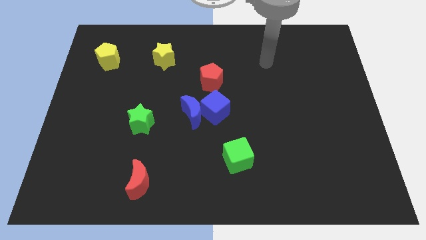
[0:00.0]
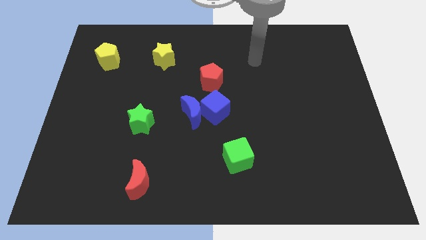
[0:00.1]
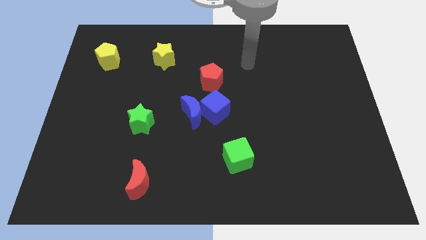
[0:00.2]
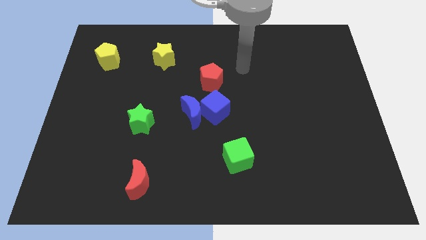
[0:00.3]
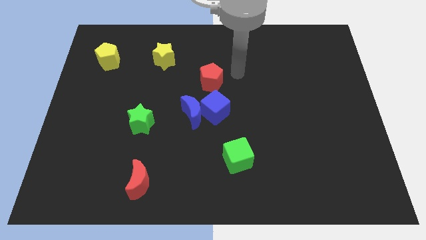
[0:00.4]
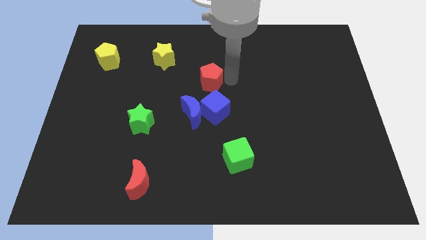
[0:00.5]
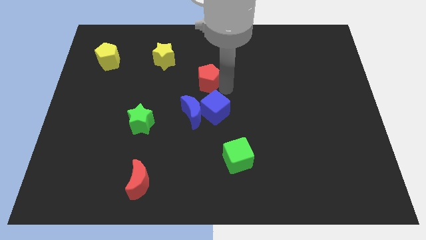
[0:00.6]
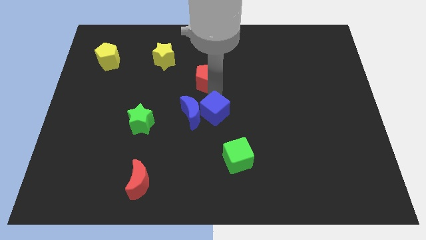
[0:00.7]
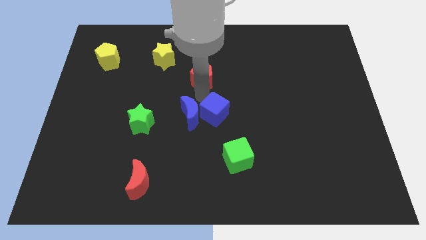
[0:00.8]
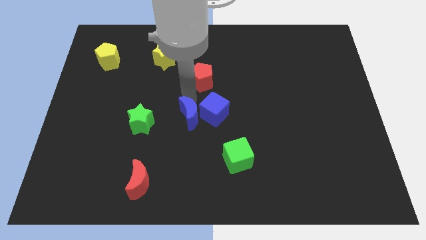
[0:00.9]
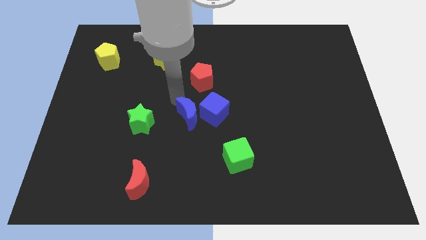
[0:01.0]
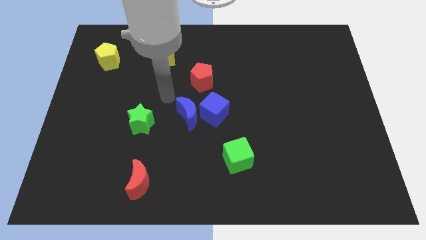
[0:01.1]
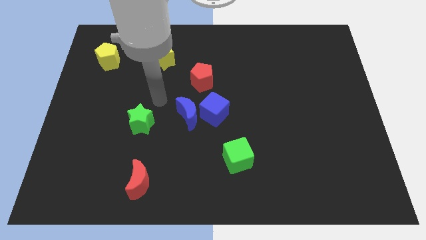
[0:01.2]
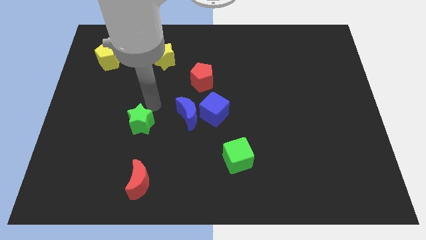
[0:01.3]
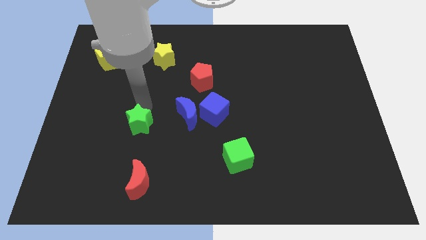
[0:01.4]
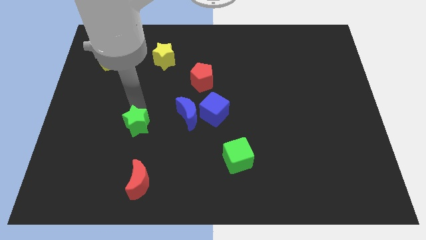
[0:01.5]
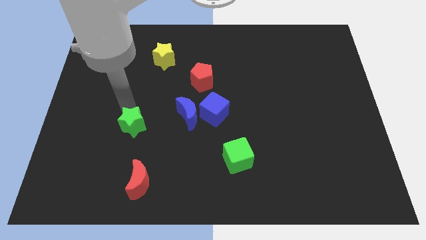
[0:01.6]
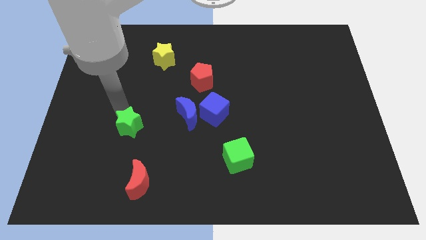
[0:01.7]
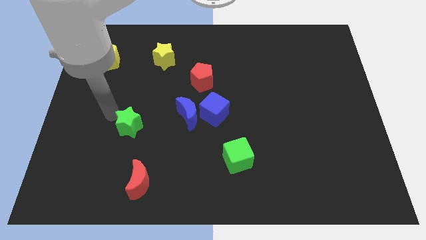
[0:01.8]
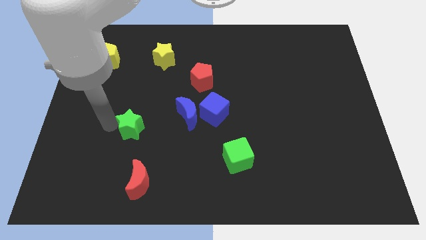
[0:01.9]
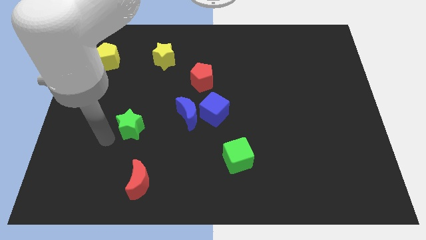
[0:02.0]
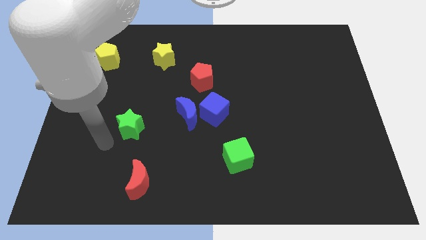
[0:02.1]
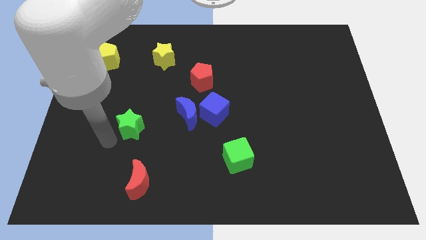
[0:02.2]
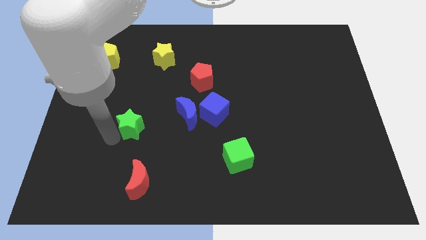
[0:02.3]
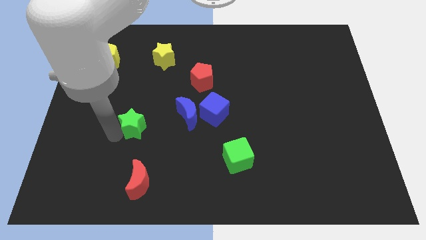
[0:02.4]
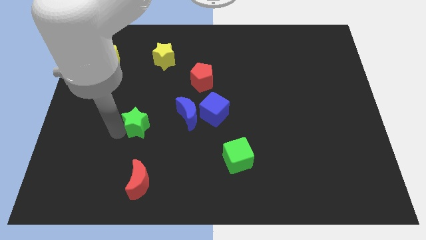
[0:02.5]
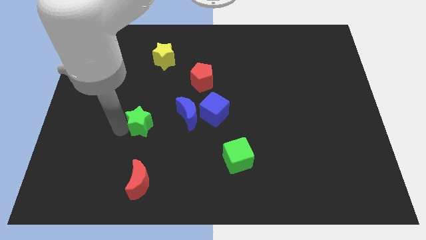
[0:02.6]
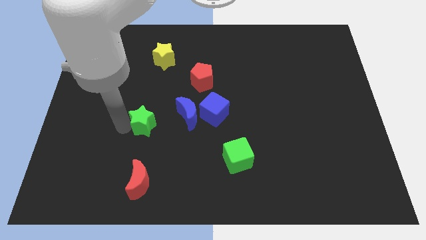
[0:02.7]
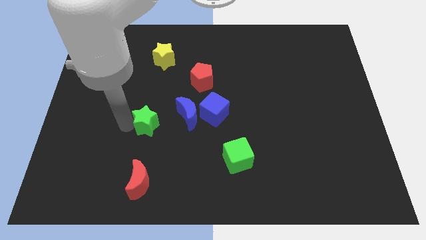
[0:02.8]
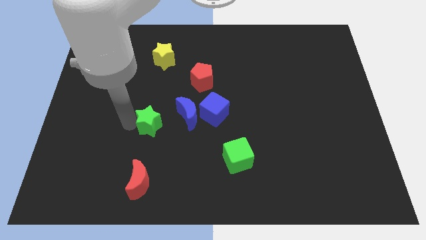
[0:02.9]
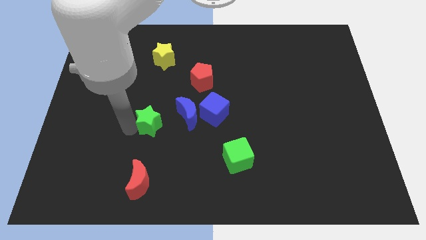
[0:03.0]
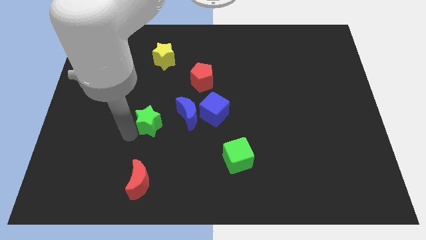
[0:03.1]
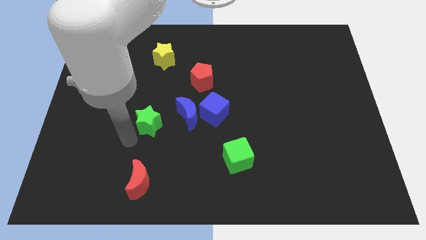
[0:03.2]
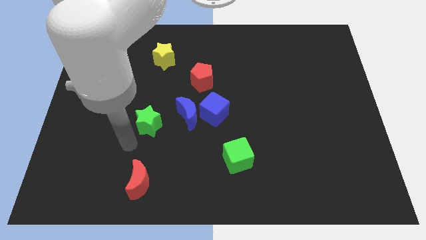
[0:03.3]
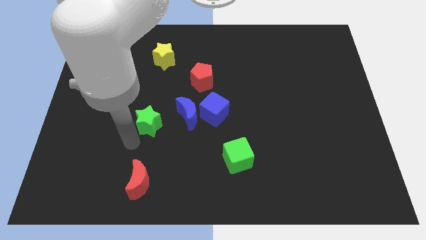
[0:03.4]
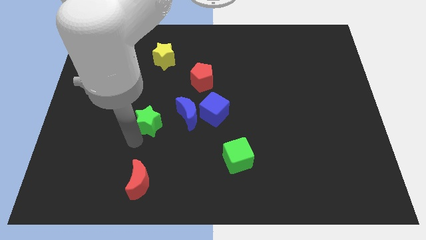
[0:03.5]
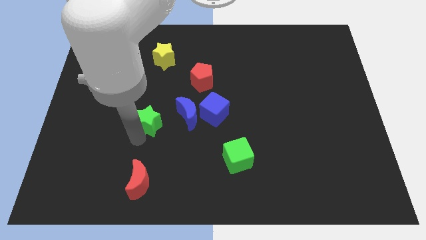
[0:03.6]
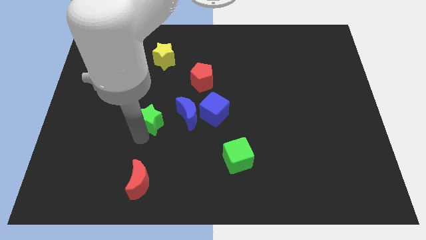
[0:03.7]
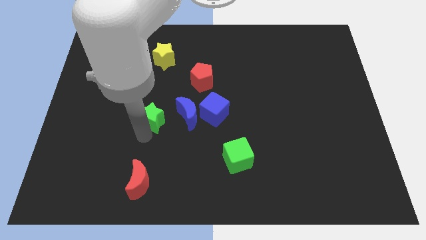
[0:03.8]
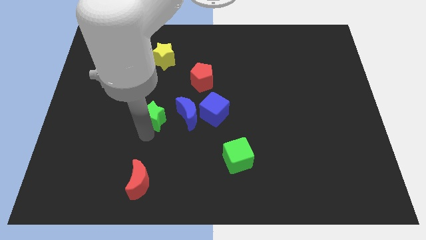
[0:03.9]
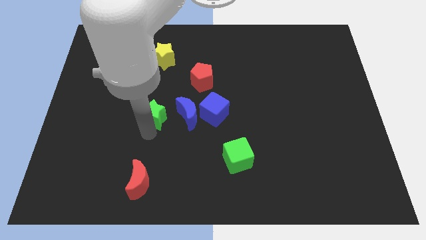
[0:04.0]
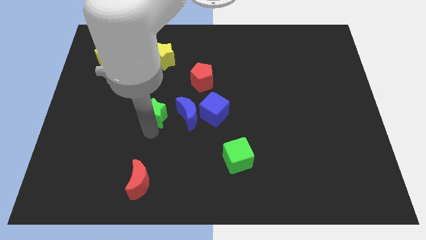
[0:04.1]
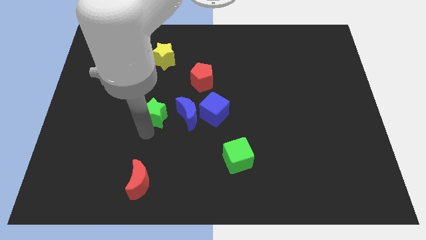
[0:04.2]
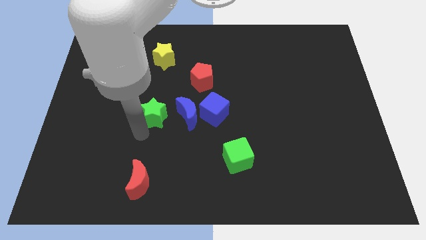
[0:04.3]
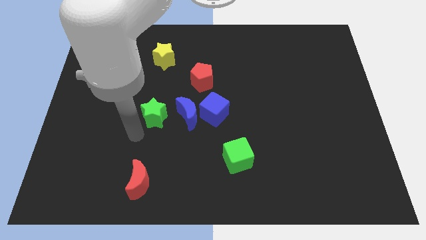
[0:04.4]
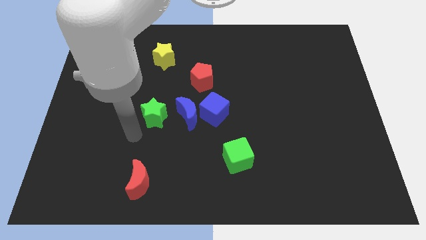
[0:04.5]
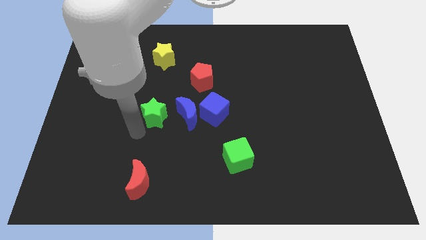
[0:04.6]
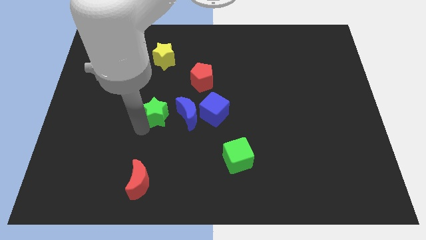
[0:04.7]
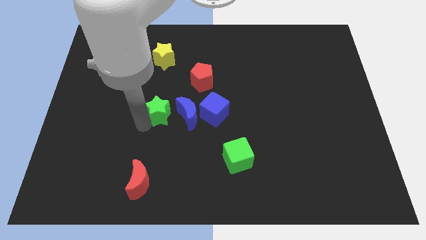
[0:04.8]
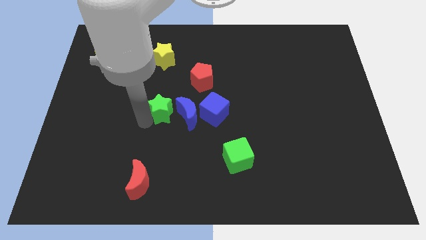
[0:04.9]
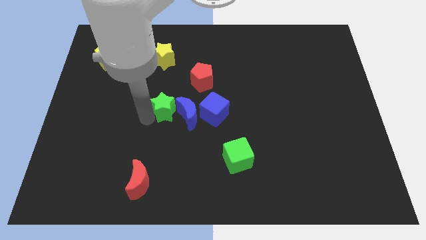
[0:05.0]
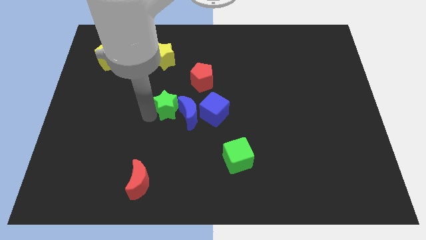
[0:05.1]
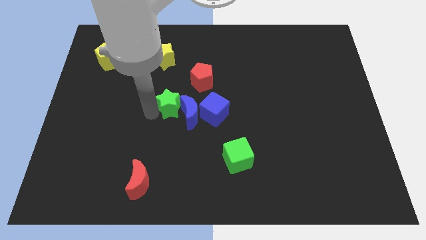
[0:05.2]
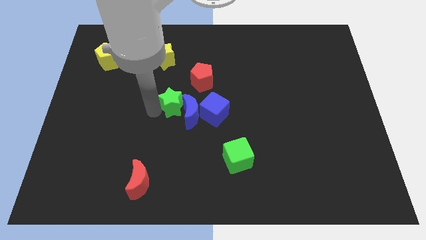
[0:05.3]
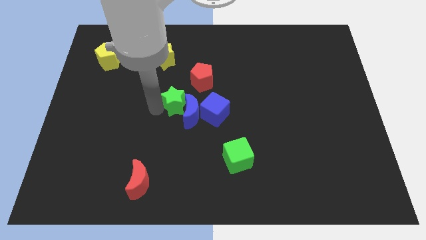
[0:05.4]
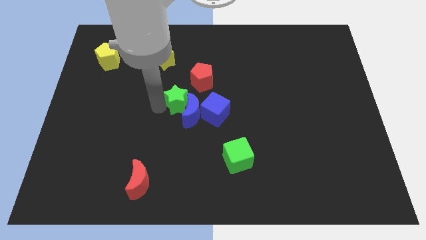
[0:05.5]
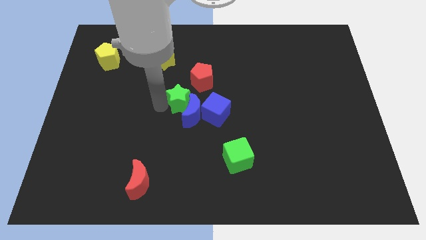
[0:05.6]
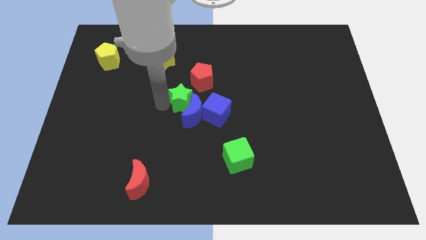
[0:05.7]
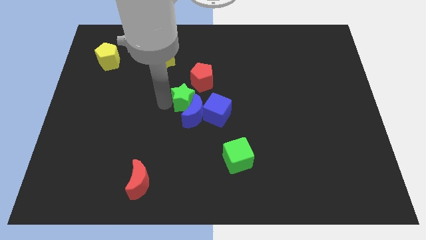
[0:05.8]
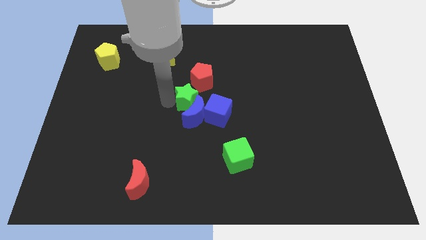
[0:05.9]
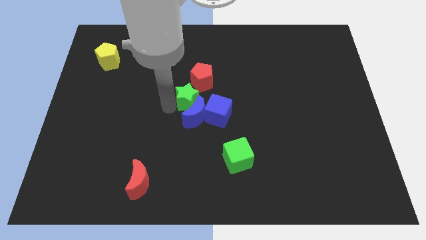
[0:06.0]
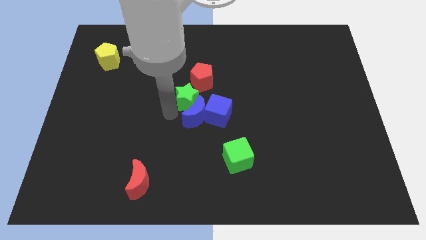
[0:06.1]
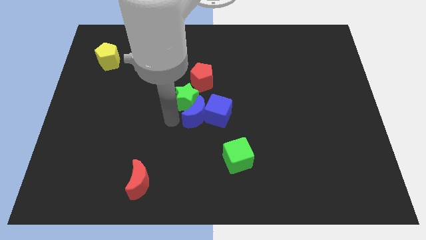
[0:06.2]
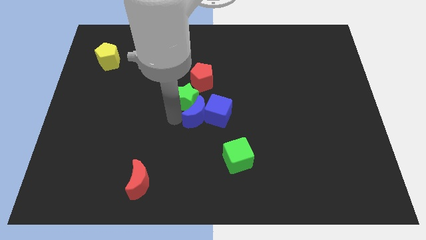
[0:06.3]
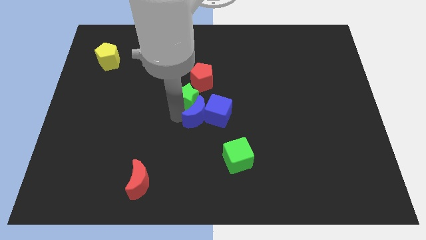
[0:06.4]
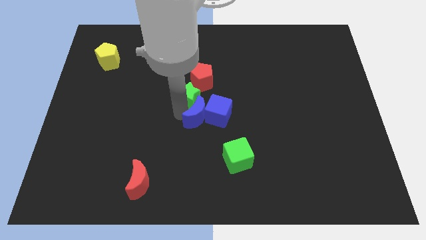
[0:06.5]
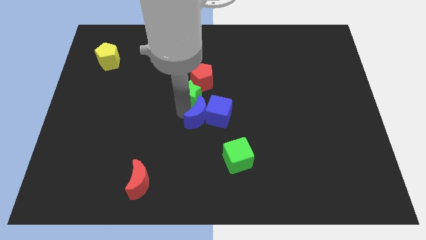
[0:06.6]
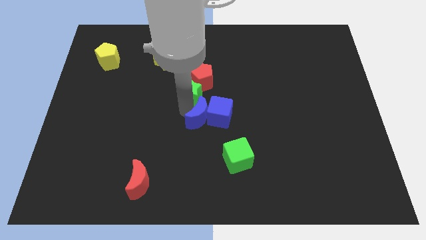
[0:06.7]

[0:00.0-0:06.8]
put the green star to the red pentagon
